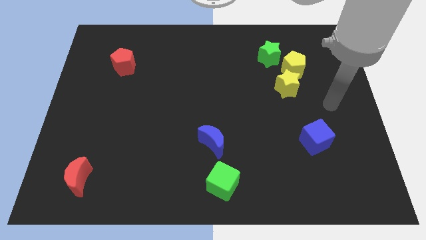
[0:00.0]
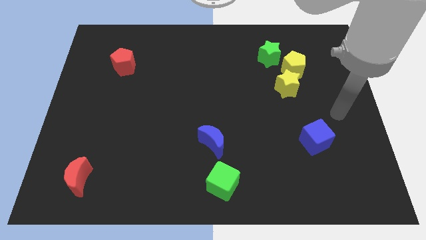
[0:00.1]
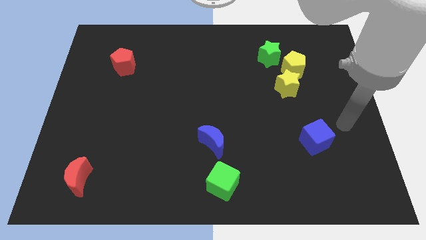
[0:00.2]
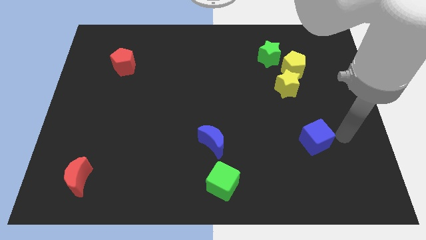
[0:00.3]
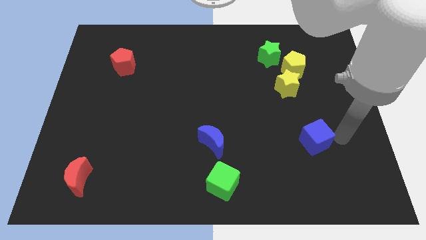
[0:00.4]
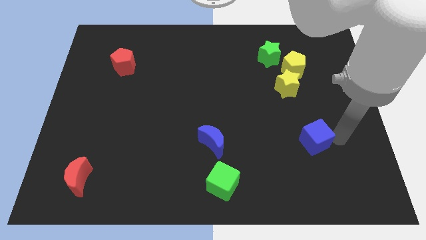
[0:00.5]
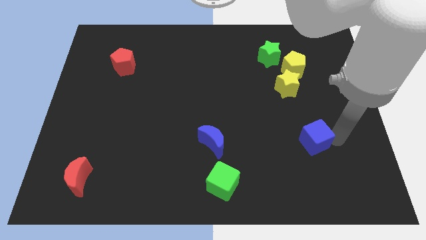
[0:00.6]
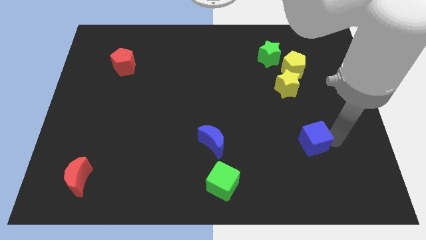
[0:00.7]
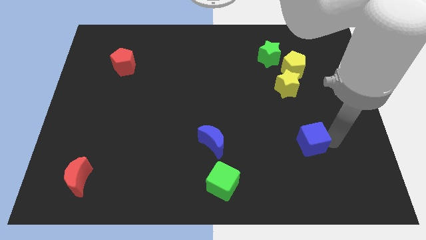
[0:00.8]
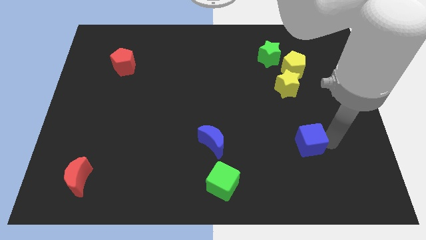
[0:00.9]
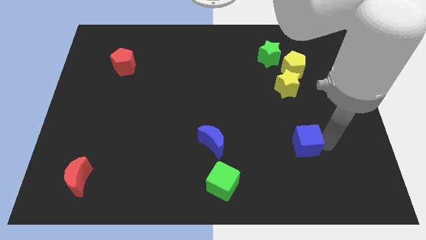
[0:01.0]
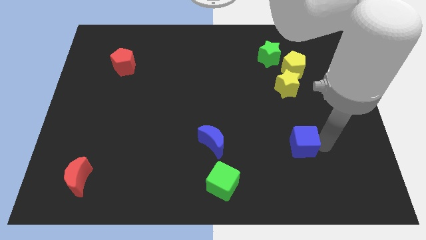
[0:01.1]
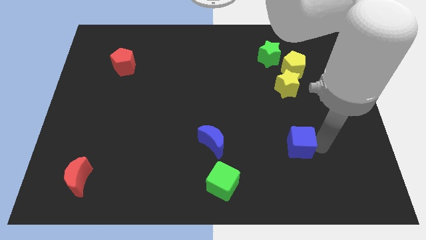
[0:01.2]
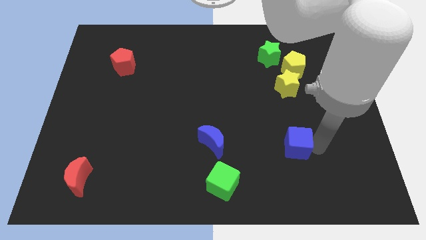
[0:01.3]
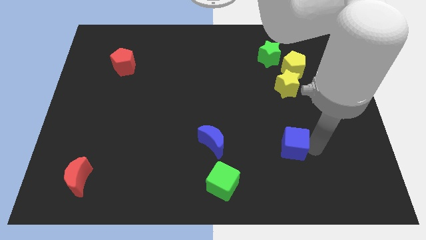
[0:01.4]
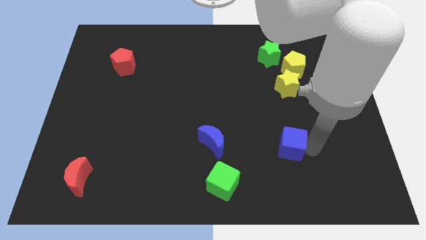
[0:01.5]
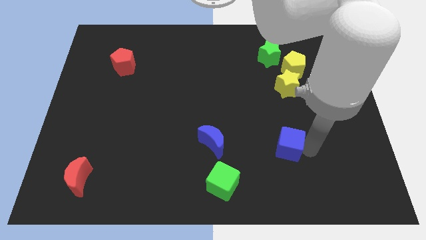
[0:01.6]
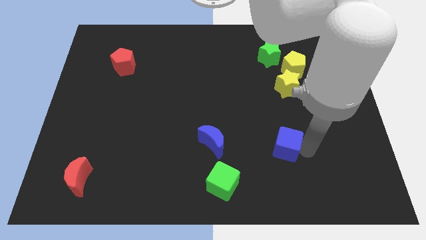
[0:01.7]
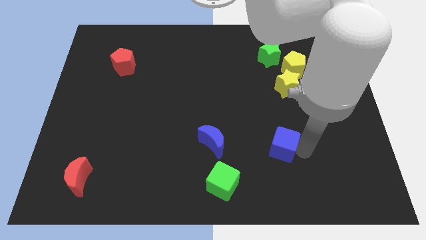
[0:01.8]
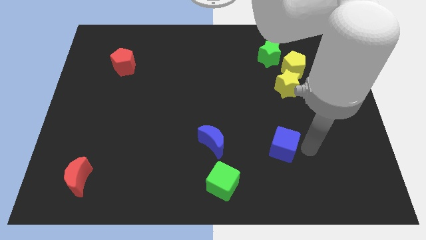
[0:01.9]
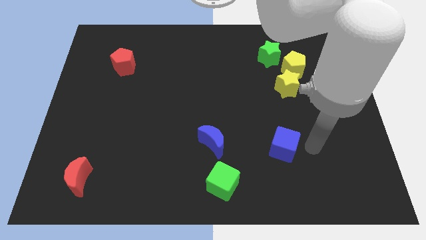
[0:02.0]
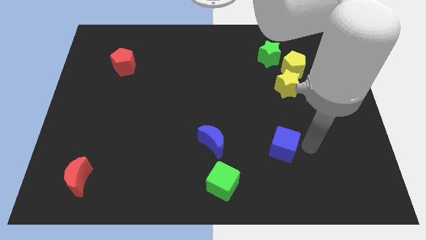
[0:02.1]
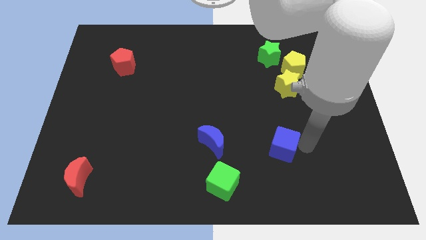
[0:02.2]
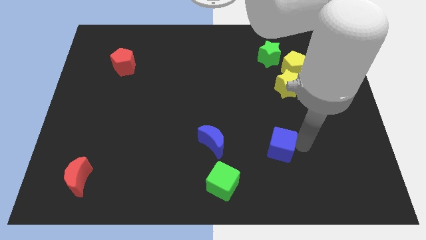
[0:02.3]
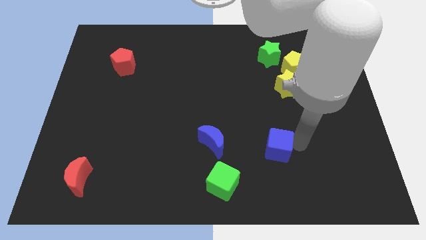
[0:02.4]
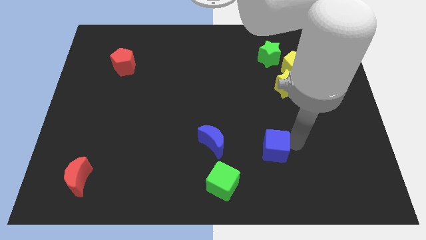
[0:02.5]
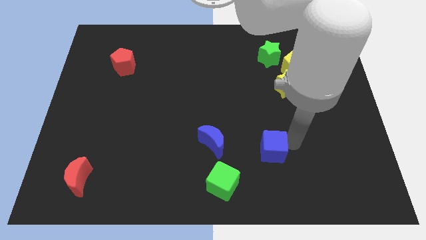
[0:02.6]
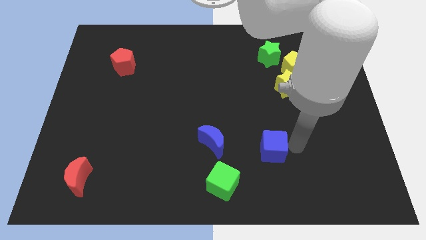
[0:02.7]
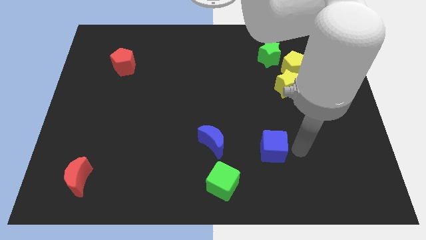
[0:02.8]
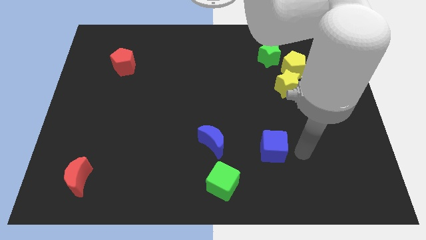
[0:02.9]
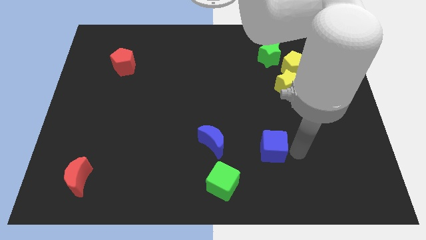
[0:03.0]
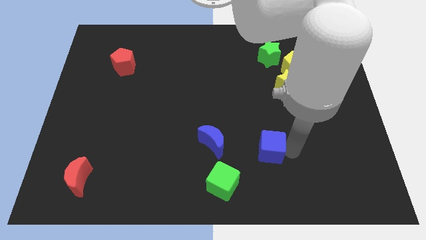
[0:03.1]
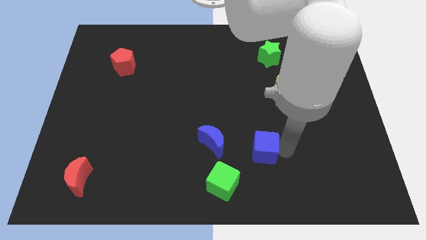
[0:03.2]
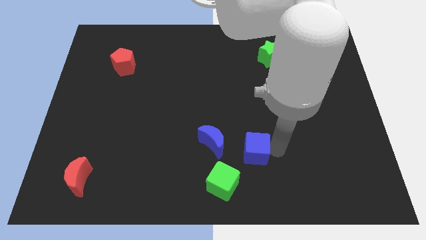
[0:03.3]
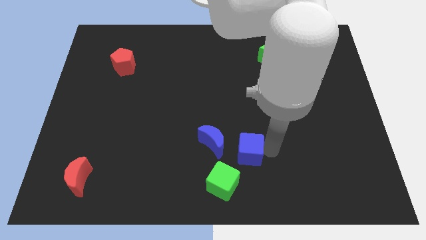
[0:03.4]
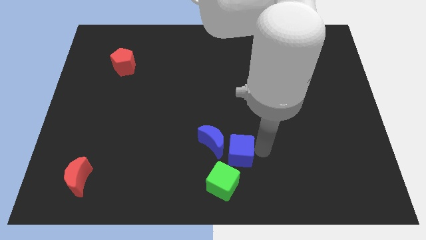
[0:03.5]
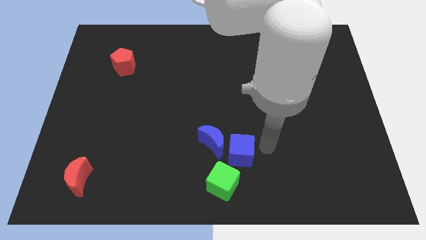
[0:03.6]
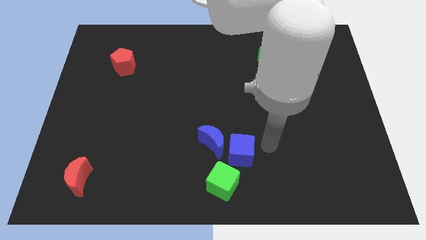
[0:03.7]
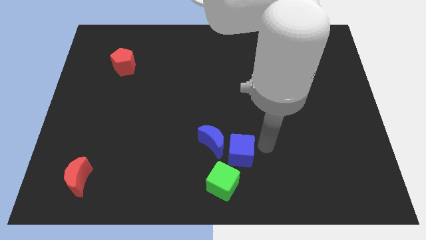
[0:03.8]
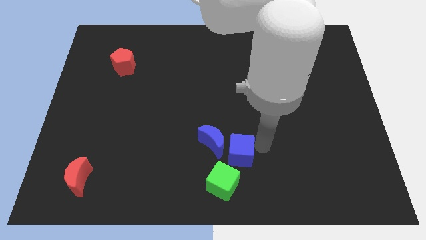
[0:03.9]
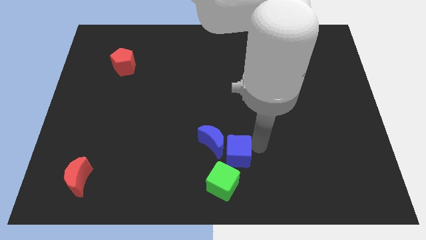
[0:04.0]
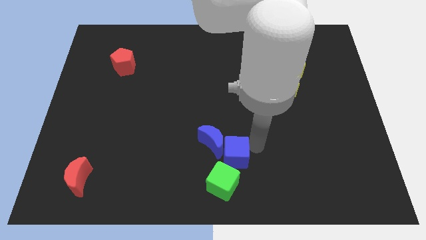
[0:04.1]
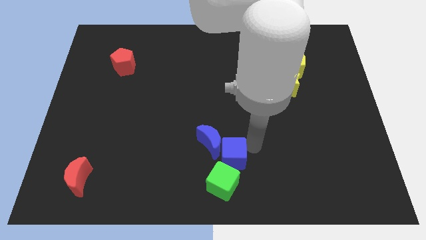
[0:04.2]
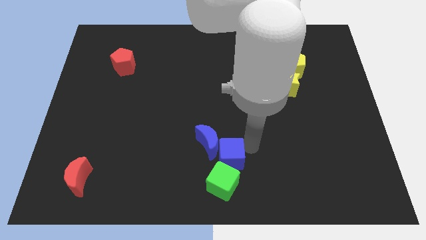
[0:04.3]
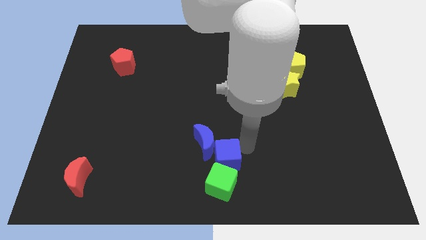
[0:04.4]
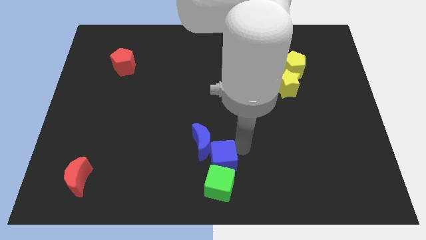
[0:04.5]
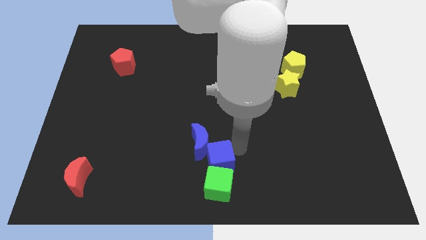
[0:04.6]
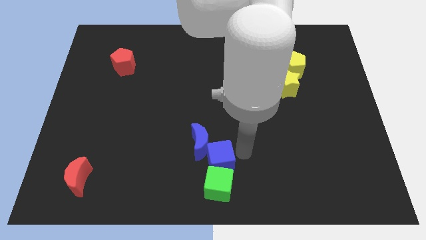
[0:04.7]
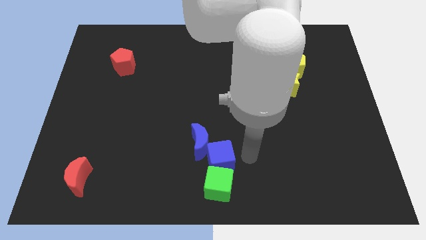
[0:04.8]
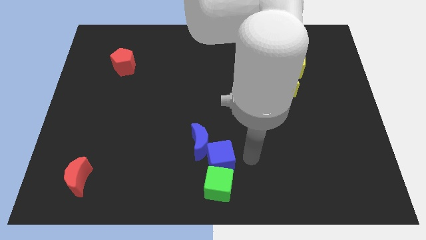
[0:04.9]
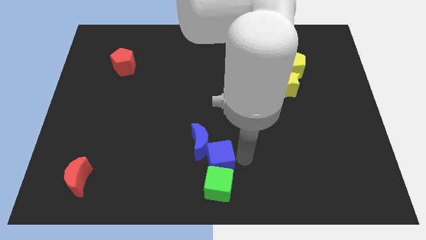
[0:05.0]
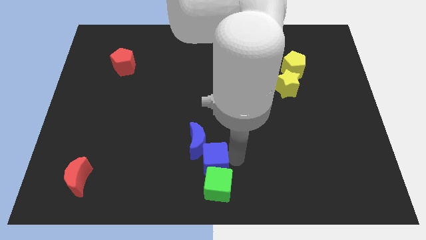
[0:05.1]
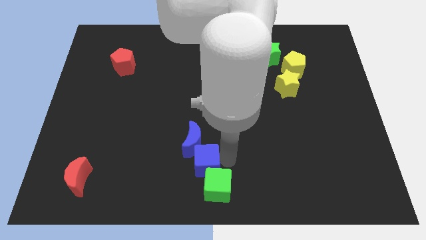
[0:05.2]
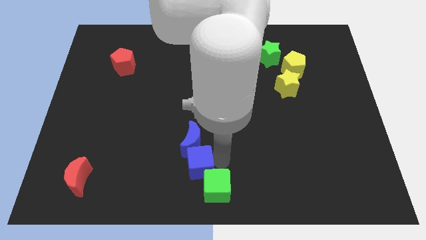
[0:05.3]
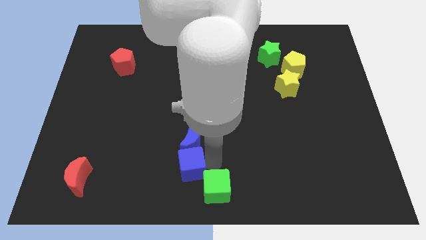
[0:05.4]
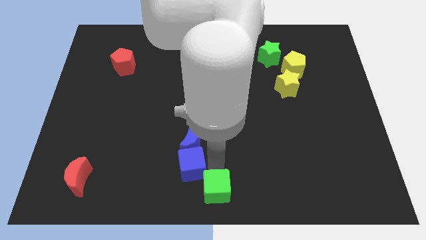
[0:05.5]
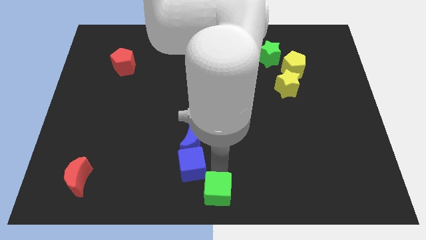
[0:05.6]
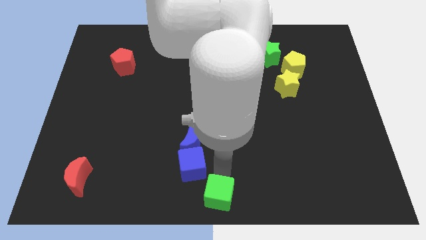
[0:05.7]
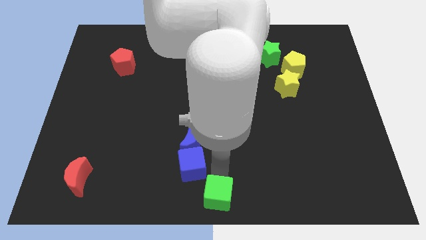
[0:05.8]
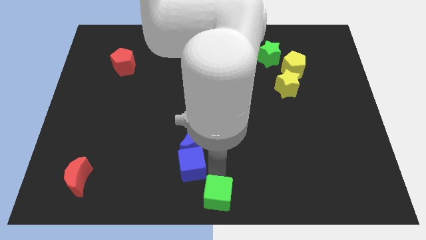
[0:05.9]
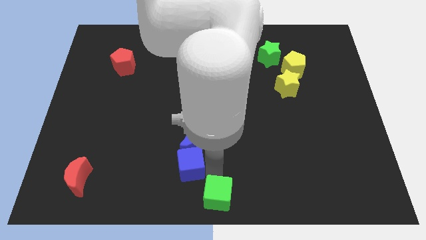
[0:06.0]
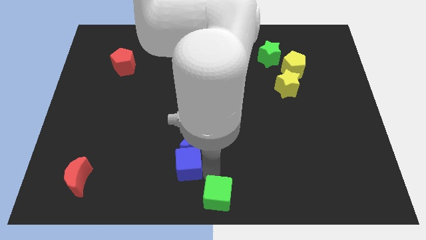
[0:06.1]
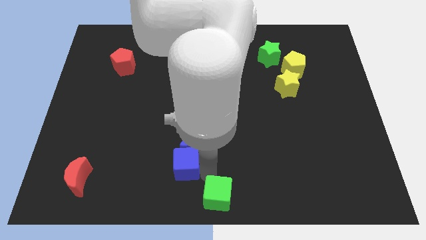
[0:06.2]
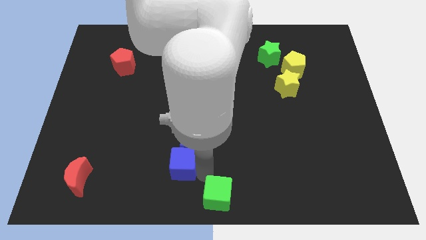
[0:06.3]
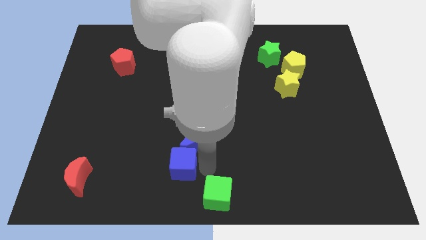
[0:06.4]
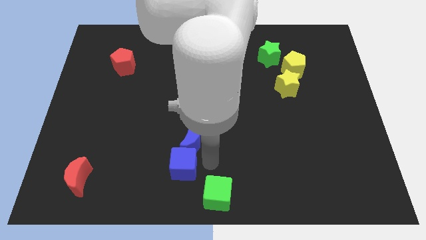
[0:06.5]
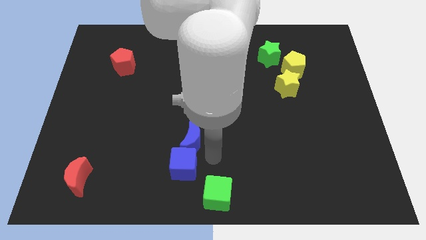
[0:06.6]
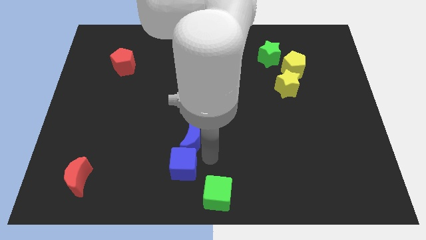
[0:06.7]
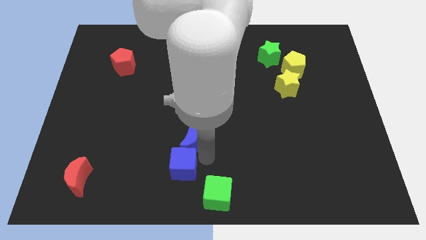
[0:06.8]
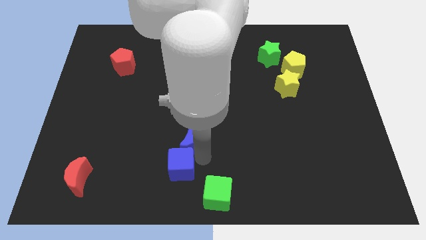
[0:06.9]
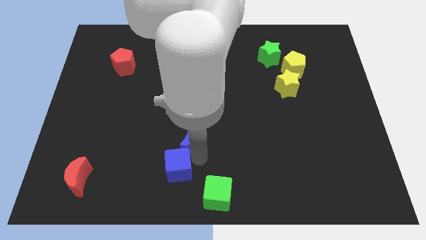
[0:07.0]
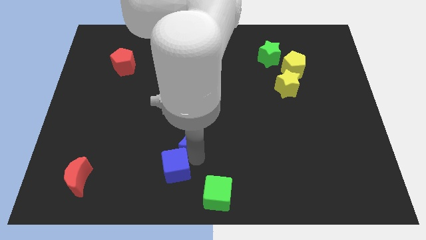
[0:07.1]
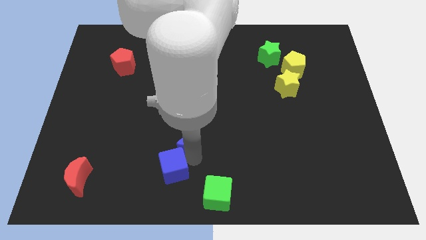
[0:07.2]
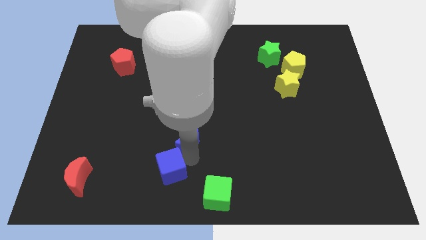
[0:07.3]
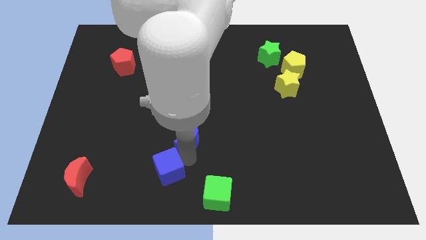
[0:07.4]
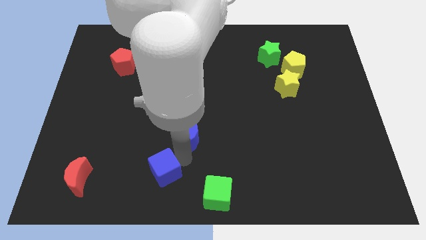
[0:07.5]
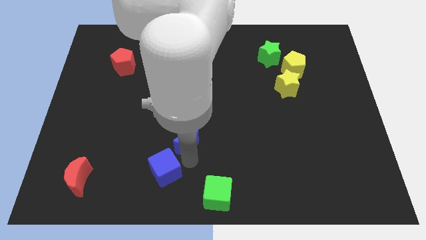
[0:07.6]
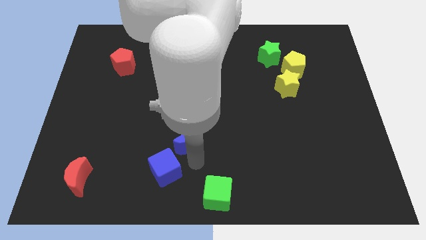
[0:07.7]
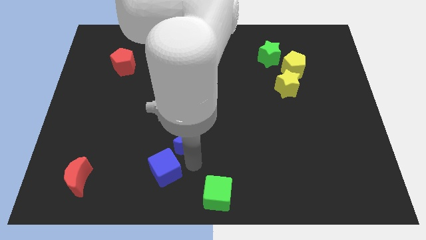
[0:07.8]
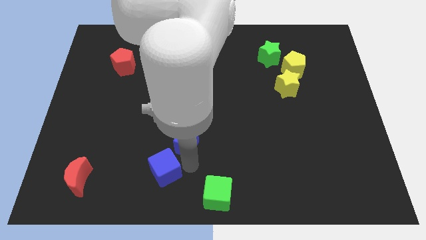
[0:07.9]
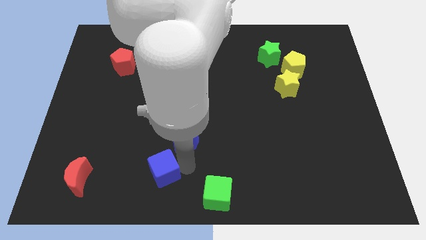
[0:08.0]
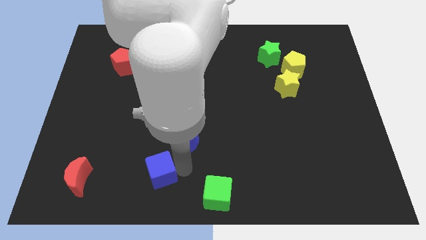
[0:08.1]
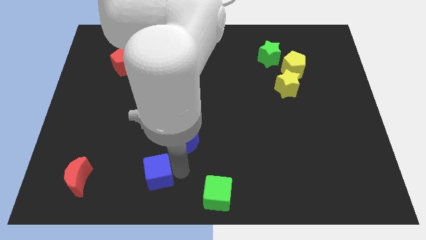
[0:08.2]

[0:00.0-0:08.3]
put the blue cube to the right side of the red moon
